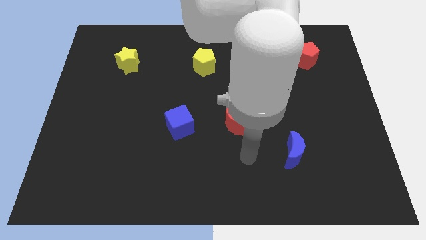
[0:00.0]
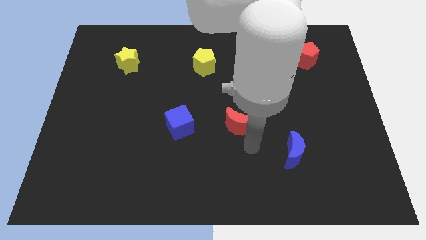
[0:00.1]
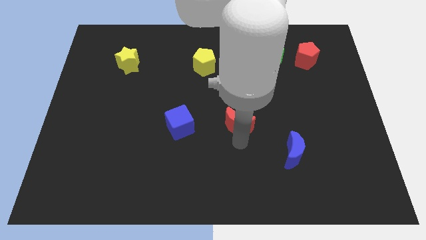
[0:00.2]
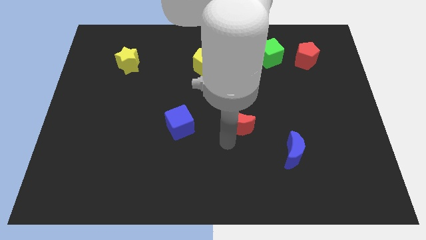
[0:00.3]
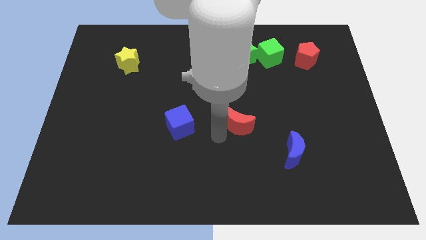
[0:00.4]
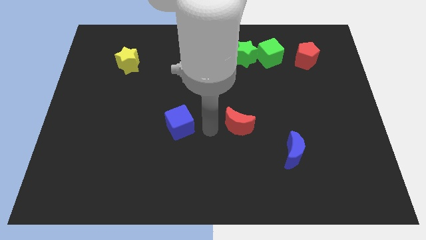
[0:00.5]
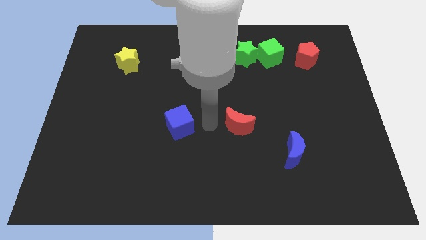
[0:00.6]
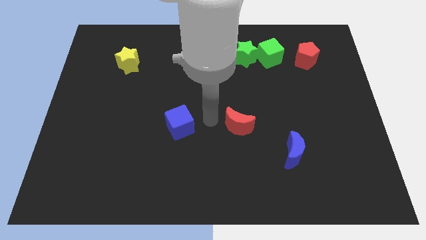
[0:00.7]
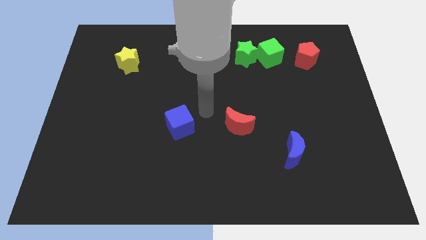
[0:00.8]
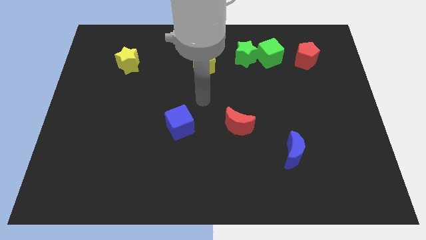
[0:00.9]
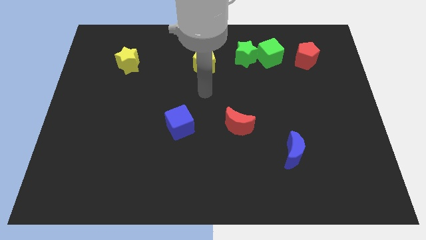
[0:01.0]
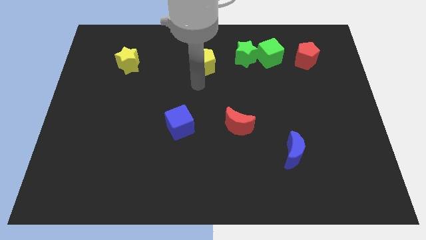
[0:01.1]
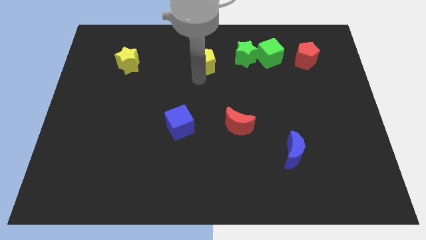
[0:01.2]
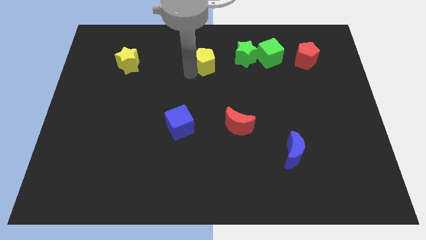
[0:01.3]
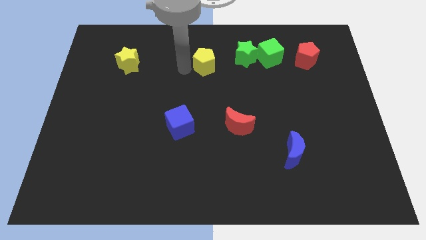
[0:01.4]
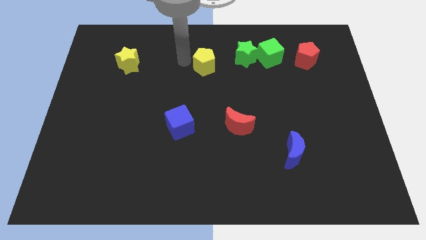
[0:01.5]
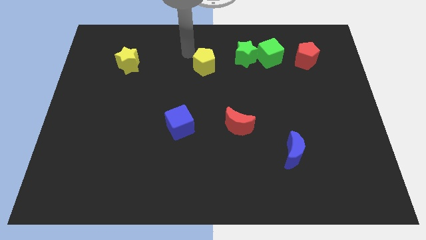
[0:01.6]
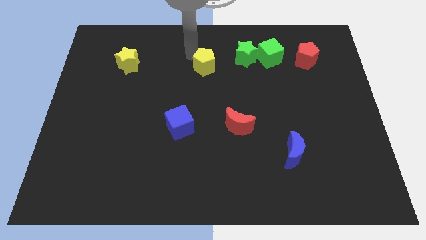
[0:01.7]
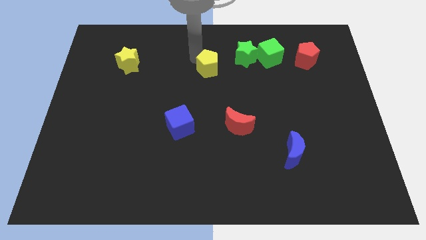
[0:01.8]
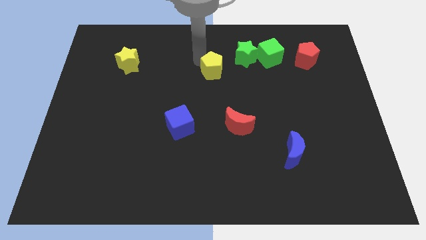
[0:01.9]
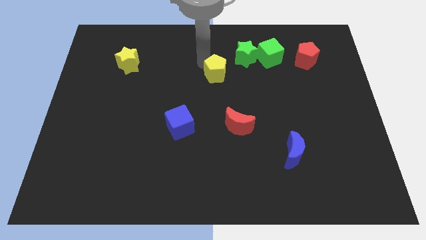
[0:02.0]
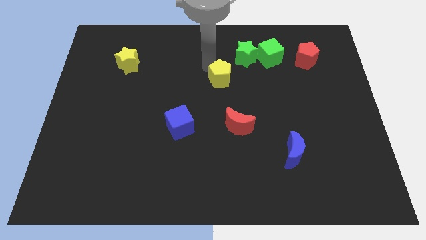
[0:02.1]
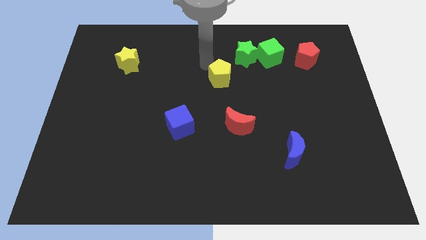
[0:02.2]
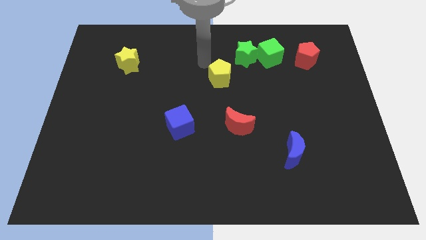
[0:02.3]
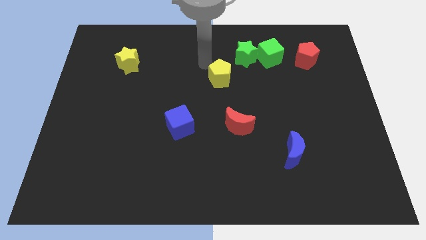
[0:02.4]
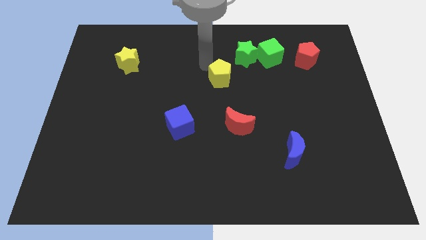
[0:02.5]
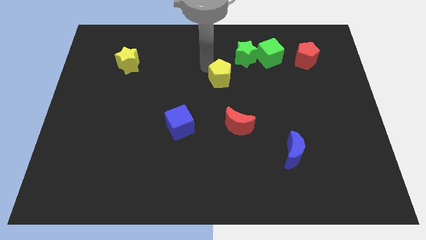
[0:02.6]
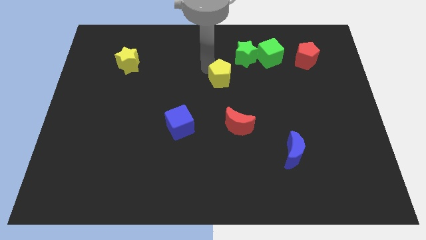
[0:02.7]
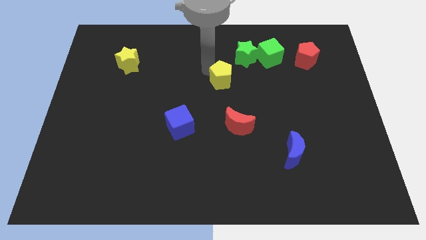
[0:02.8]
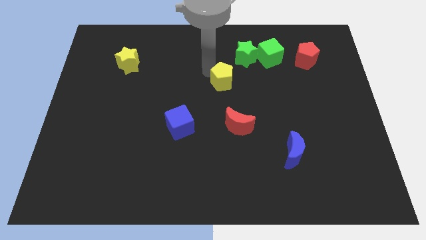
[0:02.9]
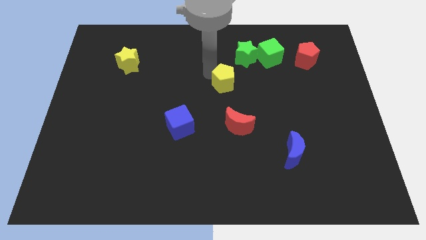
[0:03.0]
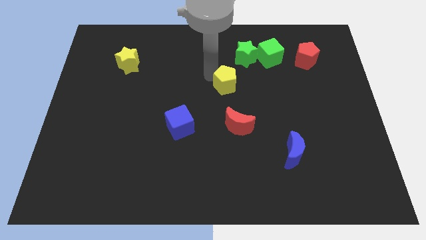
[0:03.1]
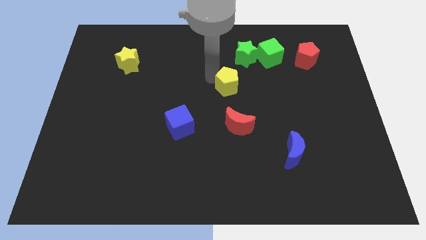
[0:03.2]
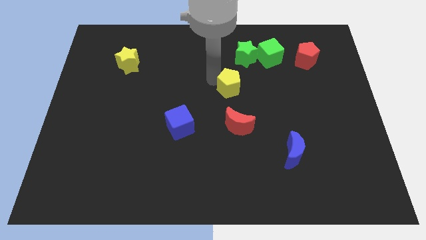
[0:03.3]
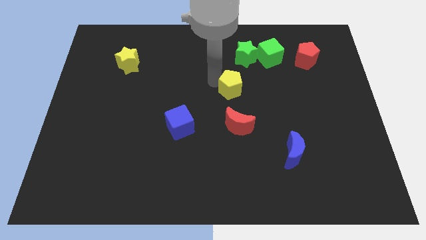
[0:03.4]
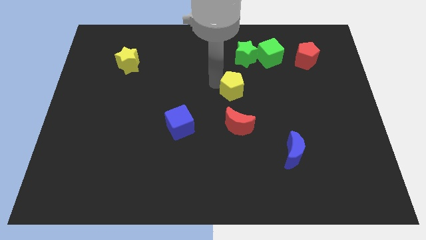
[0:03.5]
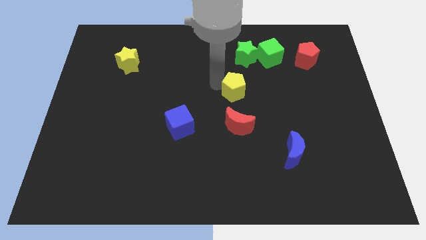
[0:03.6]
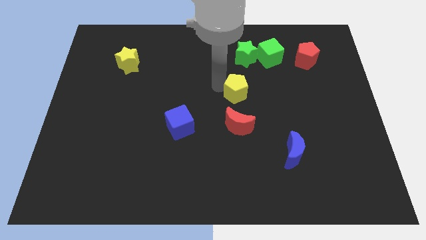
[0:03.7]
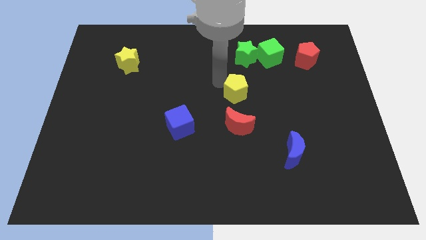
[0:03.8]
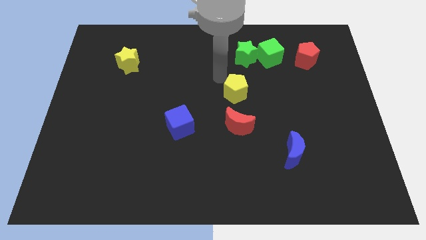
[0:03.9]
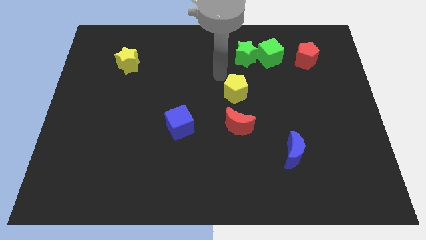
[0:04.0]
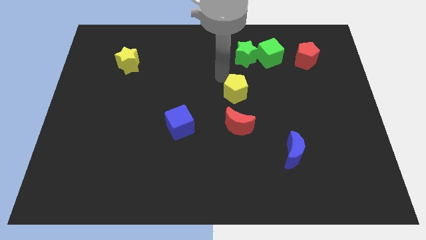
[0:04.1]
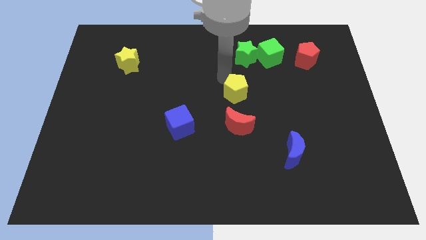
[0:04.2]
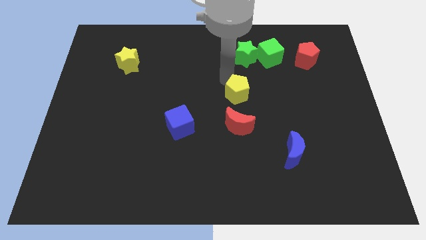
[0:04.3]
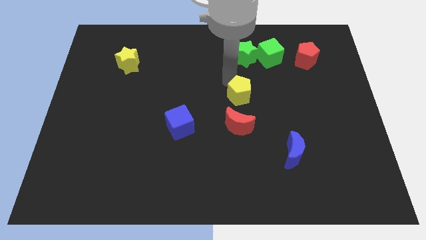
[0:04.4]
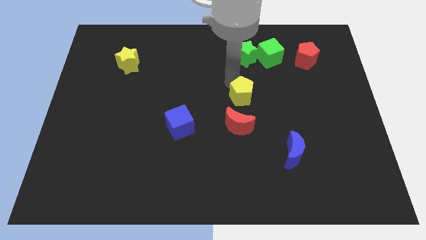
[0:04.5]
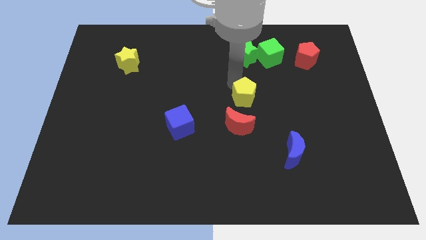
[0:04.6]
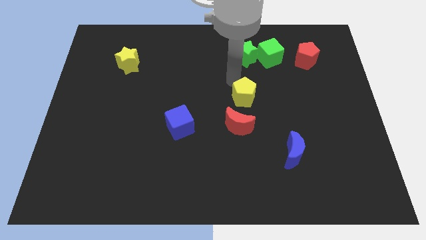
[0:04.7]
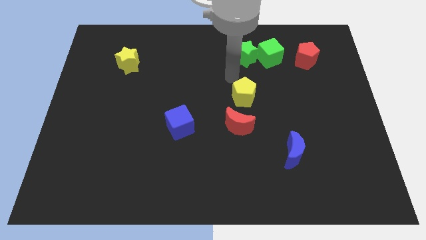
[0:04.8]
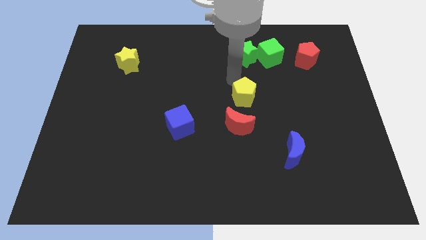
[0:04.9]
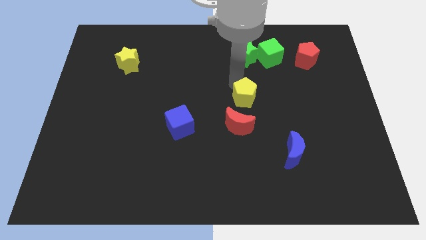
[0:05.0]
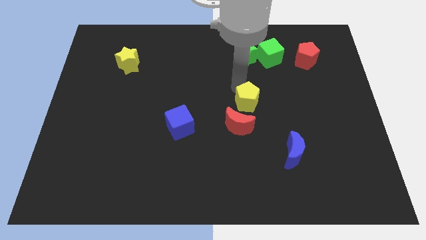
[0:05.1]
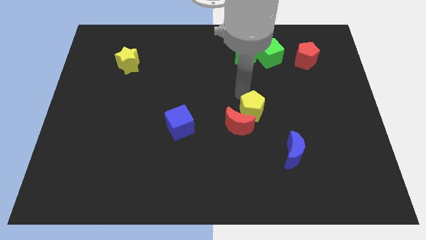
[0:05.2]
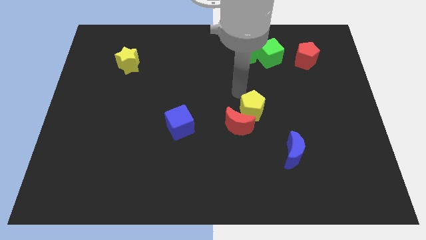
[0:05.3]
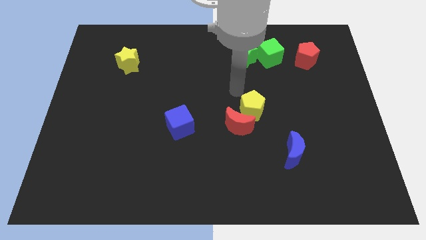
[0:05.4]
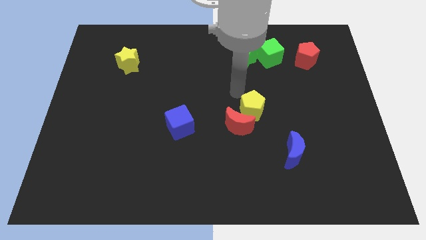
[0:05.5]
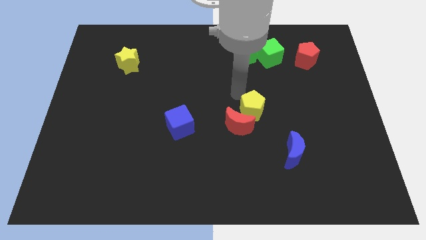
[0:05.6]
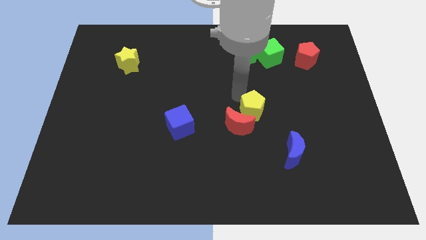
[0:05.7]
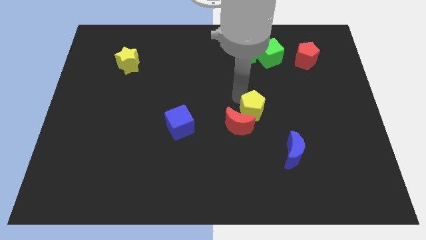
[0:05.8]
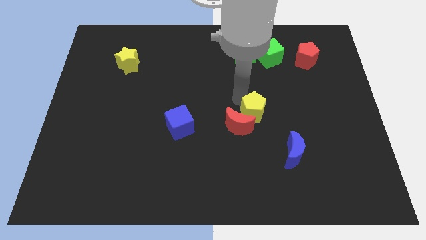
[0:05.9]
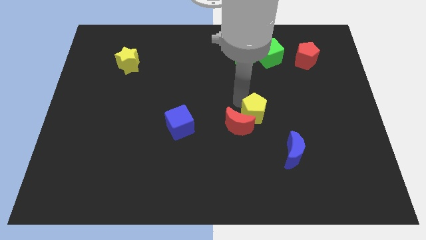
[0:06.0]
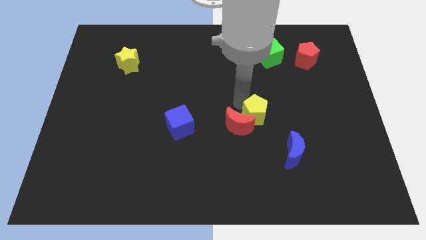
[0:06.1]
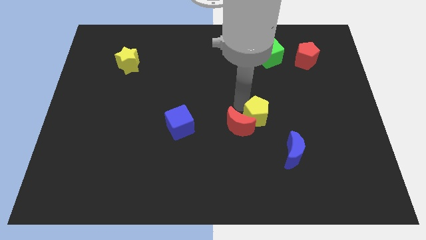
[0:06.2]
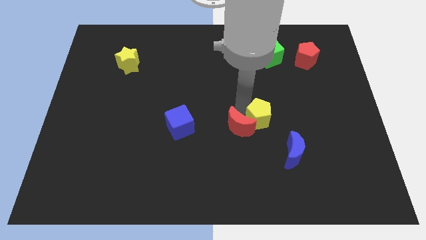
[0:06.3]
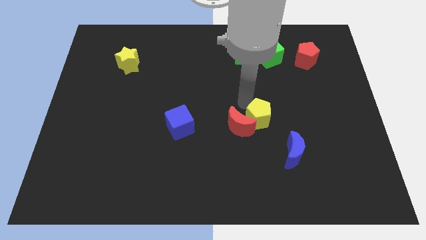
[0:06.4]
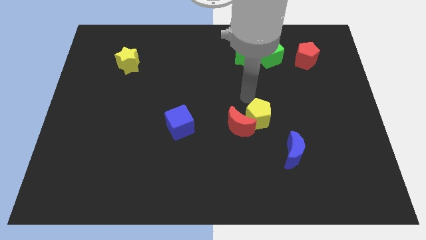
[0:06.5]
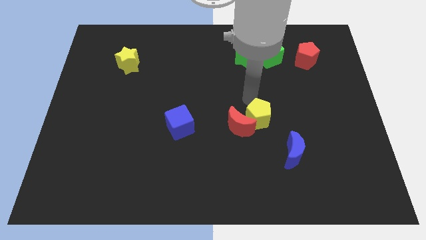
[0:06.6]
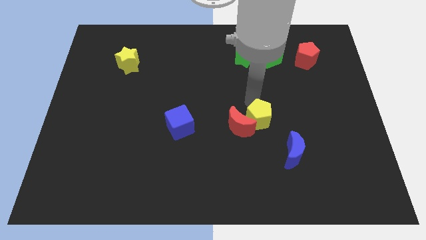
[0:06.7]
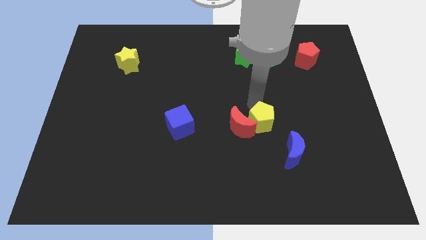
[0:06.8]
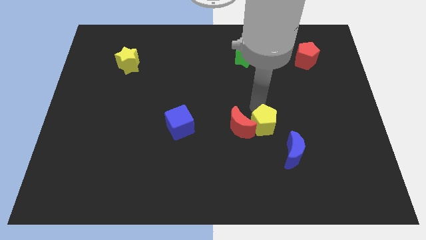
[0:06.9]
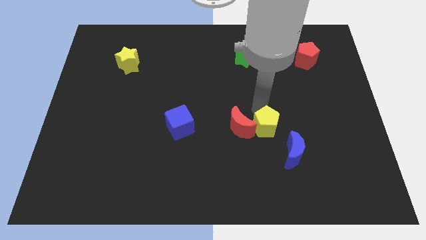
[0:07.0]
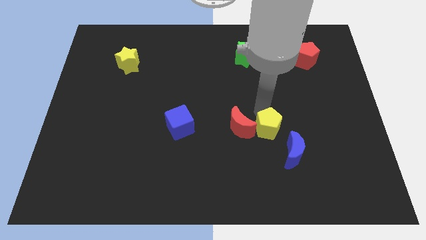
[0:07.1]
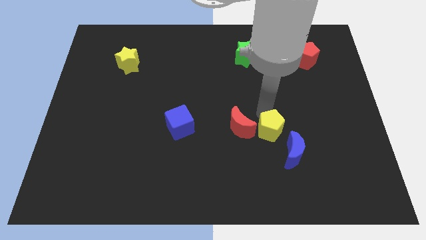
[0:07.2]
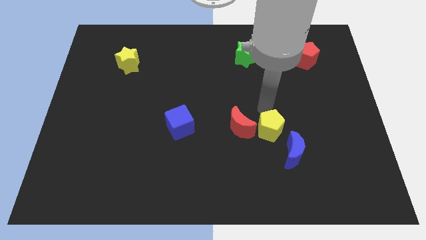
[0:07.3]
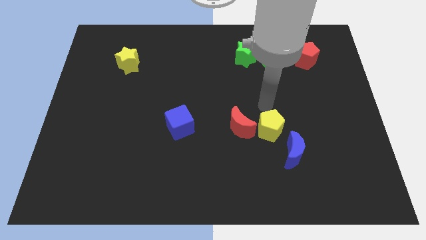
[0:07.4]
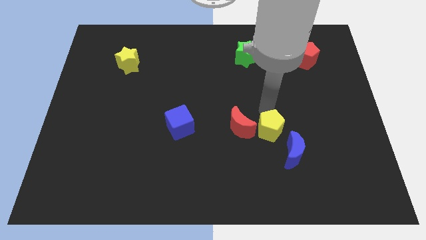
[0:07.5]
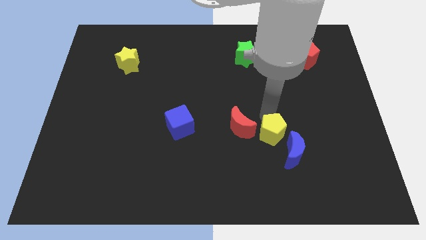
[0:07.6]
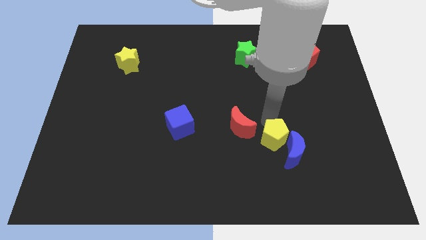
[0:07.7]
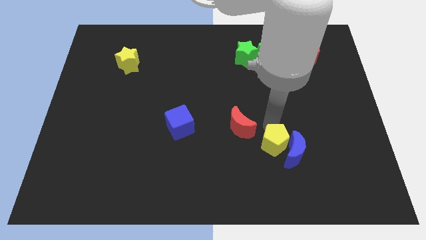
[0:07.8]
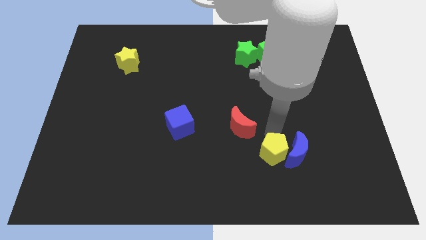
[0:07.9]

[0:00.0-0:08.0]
put the yellow pentagon diagonally down and to the left of the blue moon
